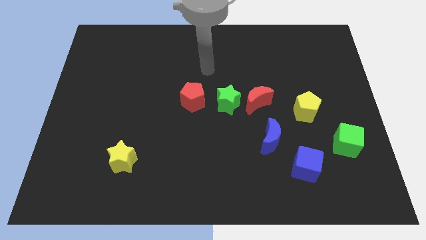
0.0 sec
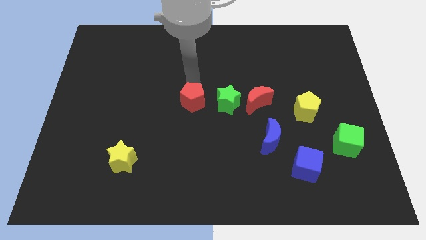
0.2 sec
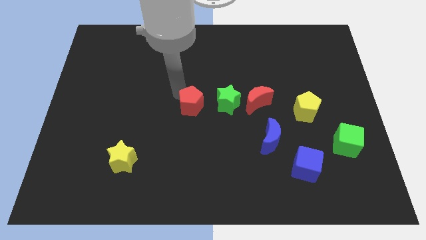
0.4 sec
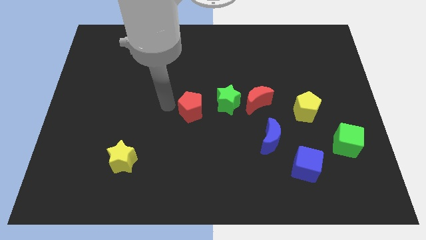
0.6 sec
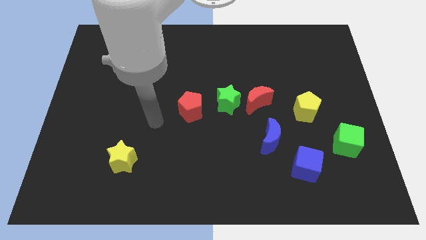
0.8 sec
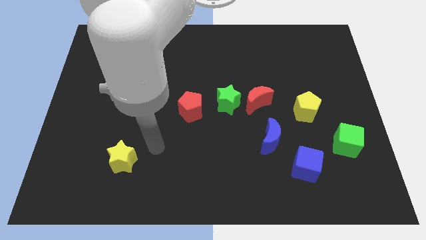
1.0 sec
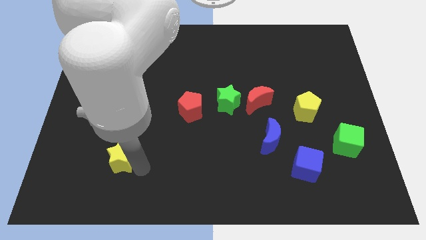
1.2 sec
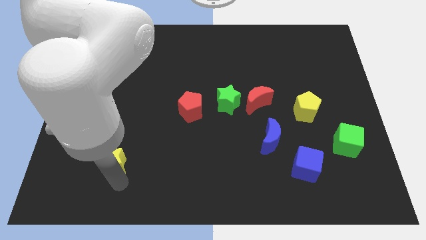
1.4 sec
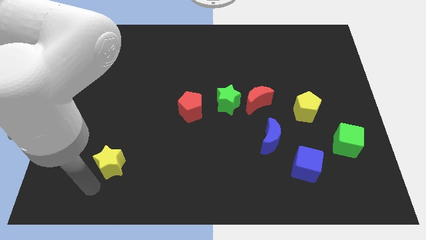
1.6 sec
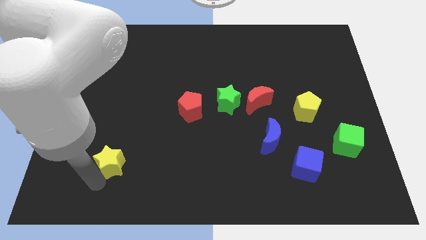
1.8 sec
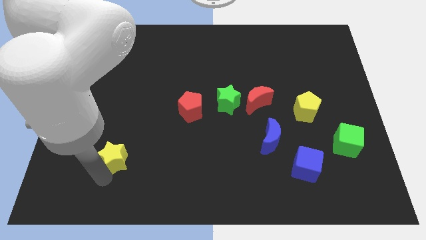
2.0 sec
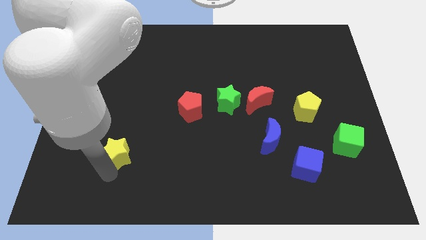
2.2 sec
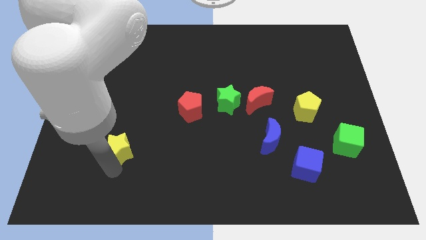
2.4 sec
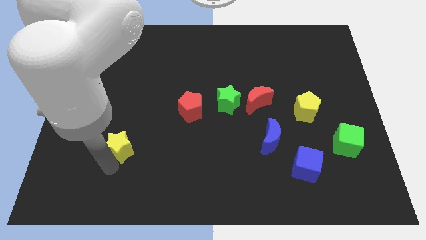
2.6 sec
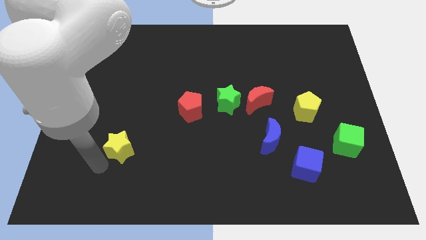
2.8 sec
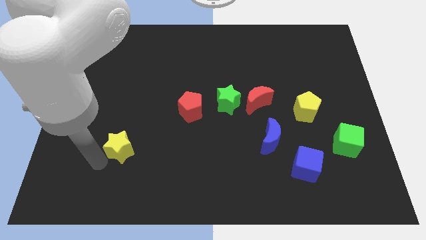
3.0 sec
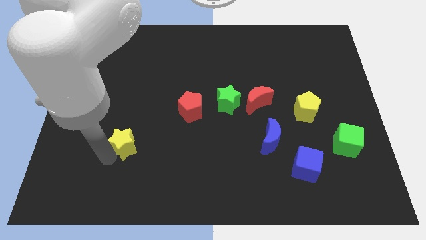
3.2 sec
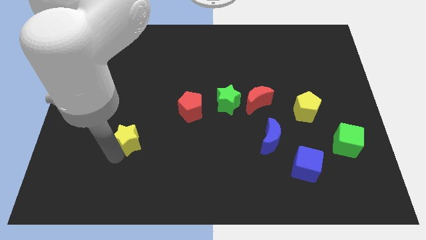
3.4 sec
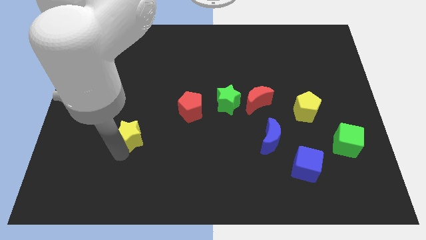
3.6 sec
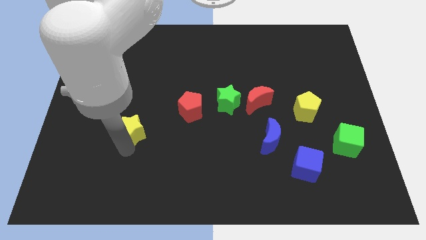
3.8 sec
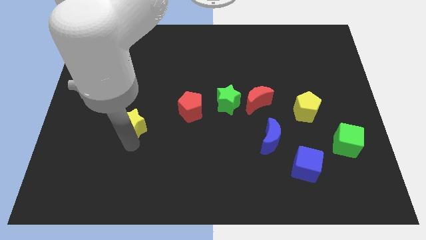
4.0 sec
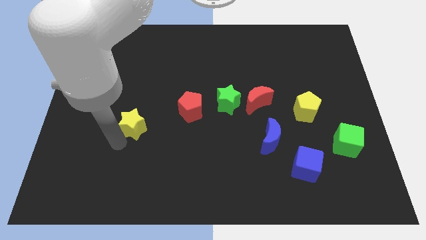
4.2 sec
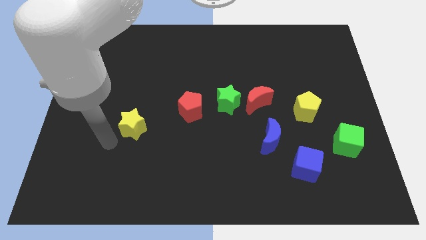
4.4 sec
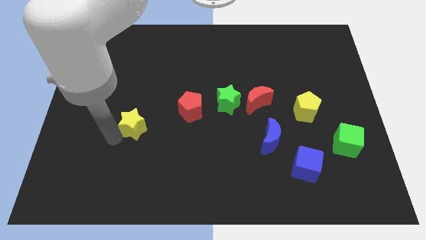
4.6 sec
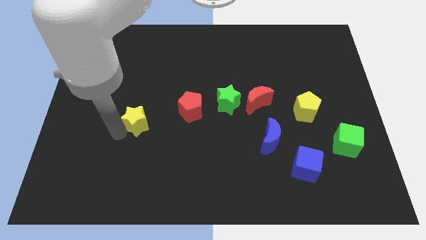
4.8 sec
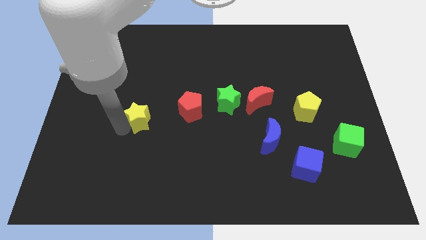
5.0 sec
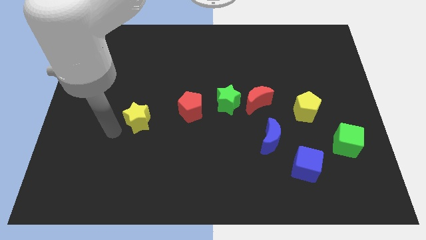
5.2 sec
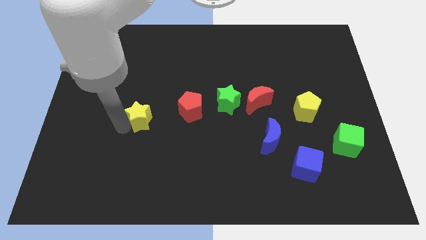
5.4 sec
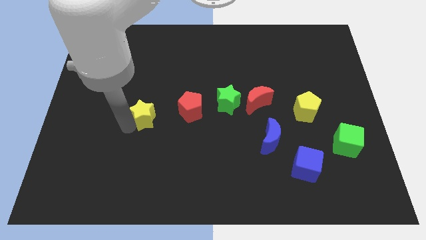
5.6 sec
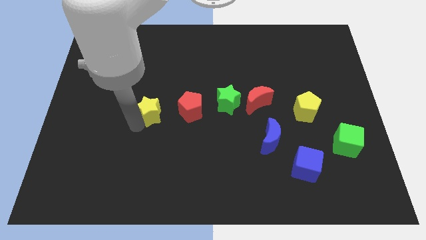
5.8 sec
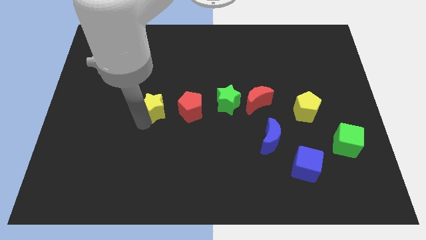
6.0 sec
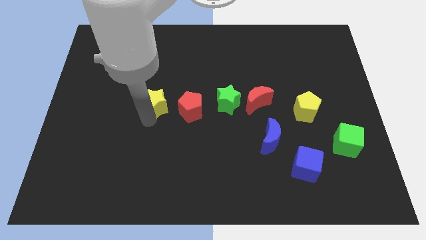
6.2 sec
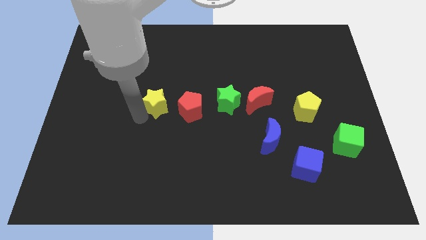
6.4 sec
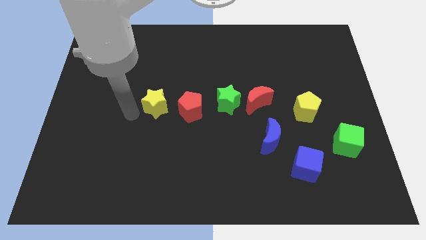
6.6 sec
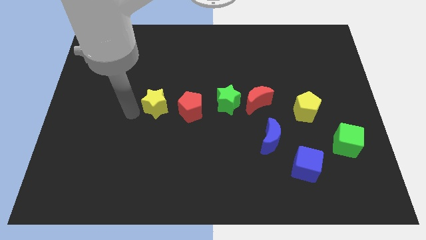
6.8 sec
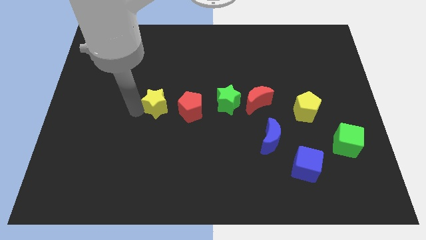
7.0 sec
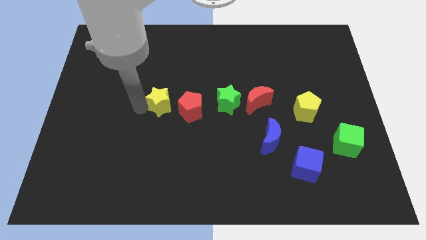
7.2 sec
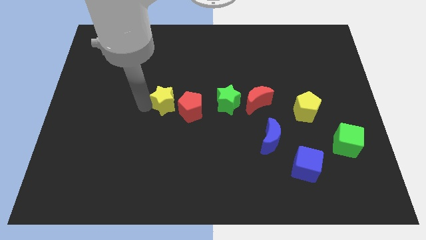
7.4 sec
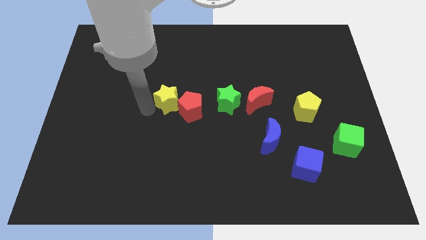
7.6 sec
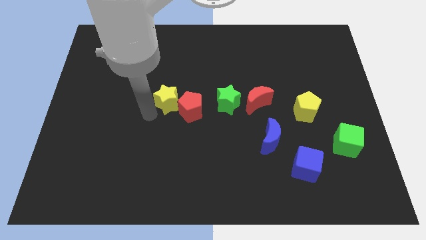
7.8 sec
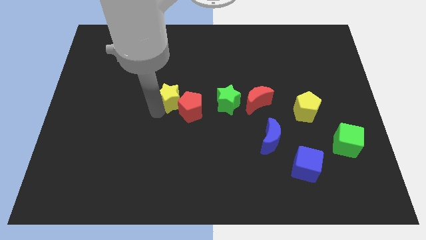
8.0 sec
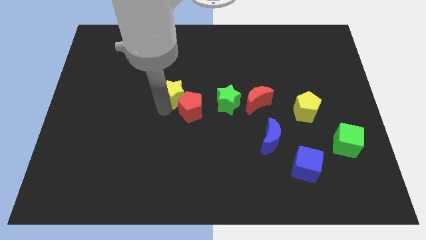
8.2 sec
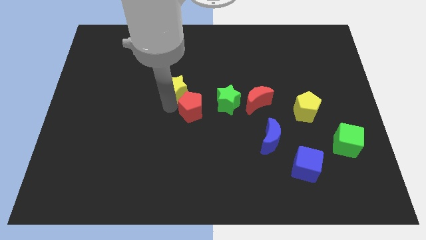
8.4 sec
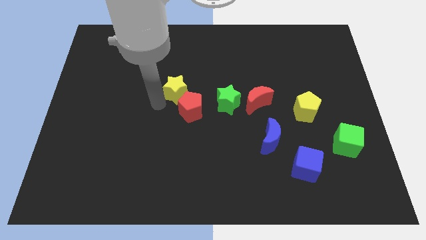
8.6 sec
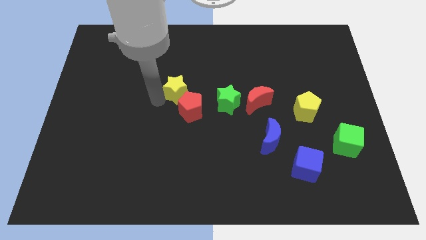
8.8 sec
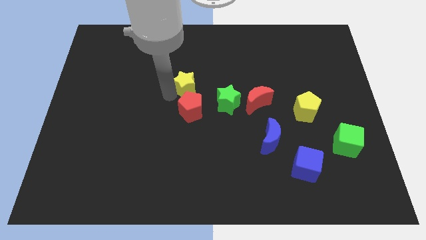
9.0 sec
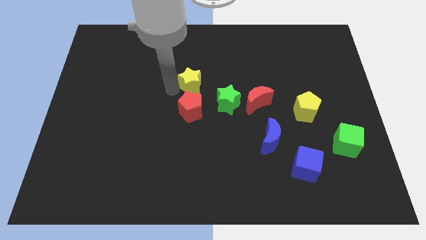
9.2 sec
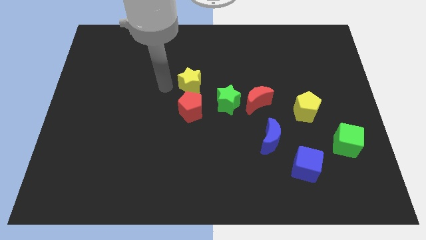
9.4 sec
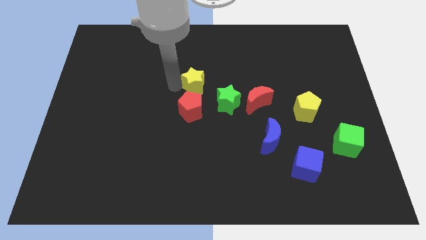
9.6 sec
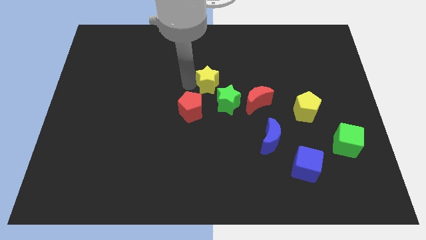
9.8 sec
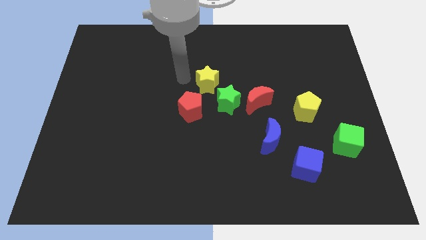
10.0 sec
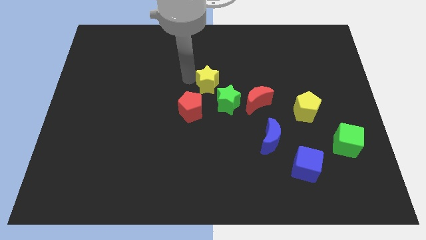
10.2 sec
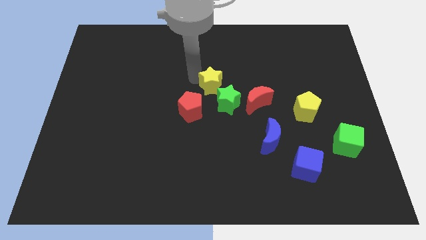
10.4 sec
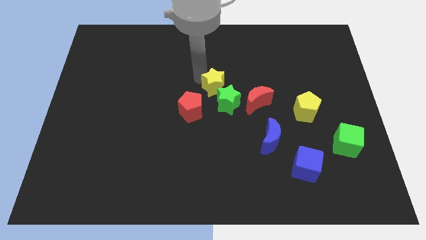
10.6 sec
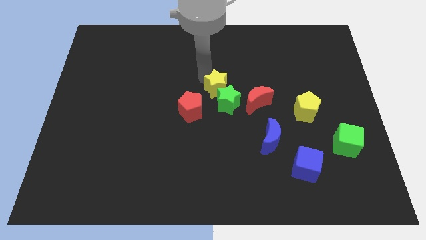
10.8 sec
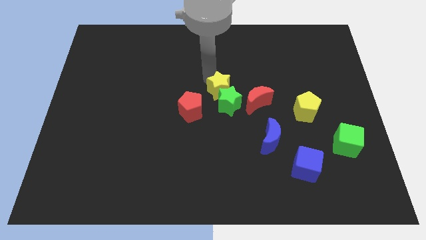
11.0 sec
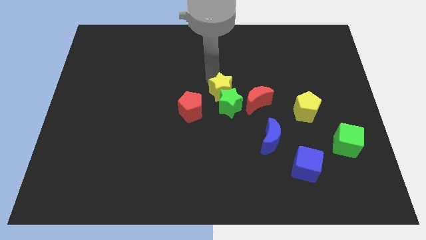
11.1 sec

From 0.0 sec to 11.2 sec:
slide the yellow star to the top right of the green star

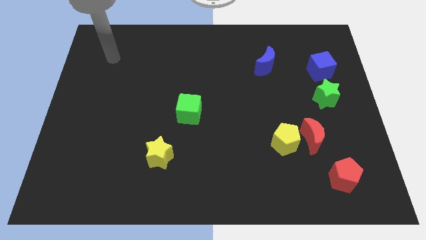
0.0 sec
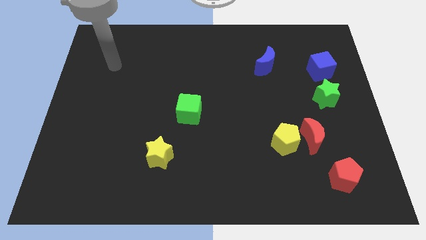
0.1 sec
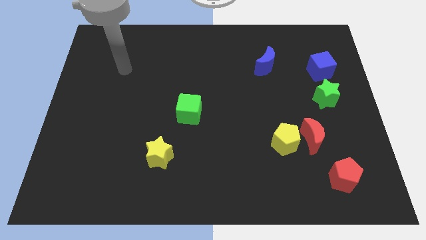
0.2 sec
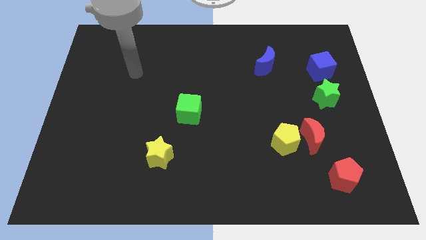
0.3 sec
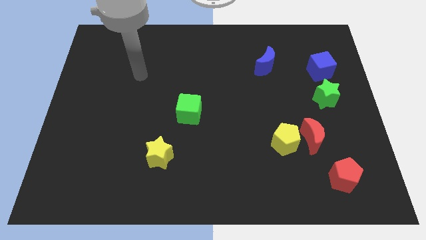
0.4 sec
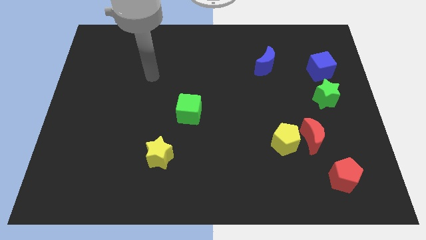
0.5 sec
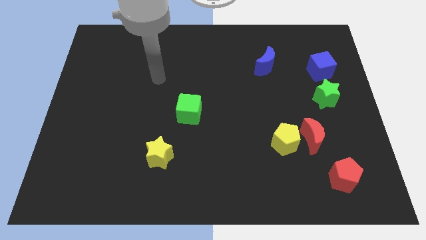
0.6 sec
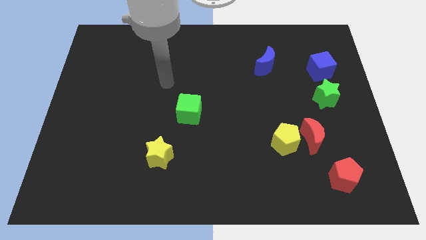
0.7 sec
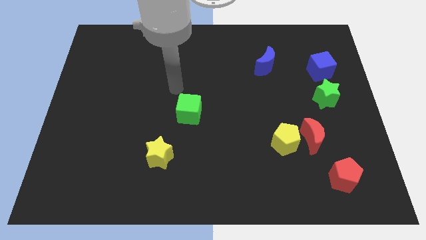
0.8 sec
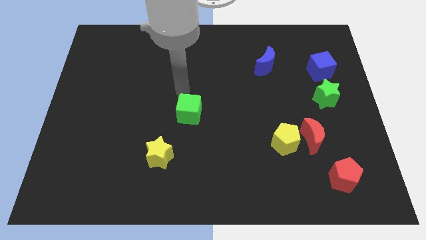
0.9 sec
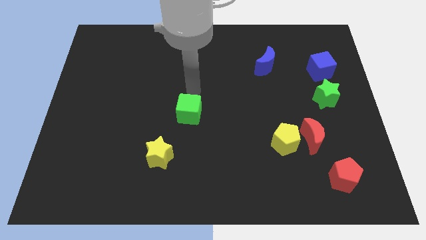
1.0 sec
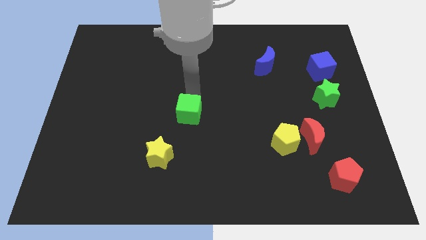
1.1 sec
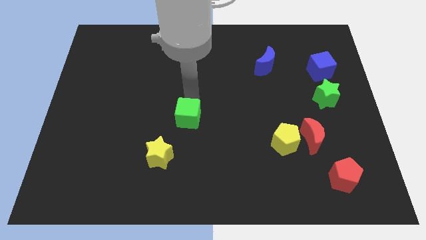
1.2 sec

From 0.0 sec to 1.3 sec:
push the green cube to the top right of the yellow star

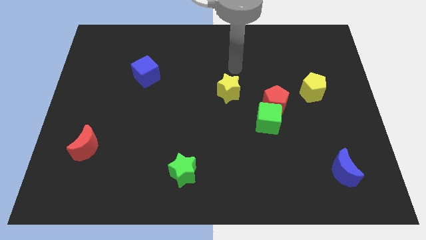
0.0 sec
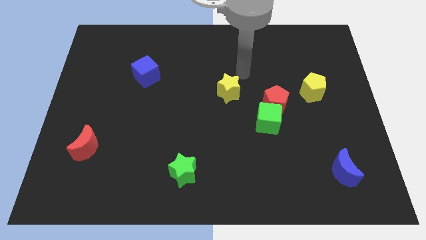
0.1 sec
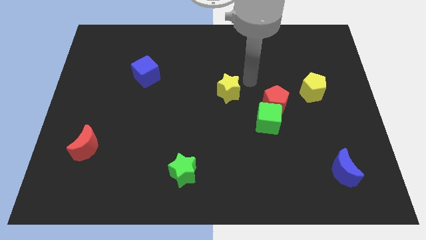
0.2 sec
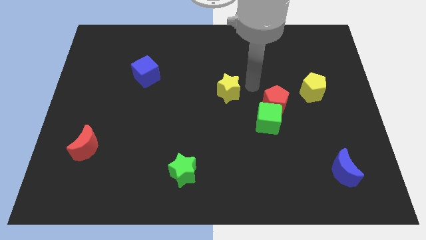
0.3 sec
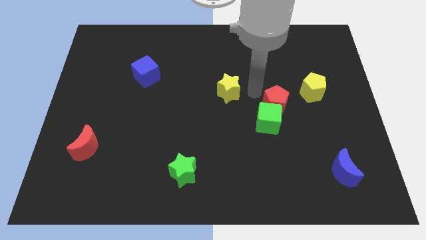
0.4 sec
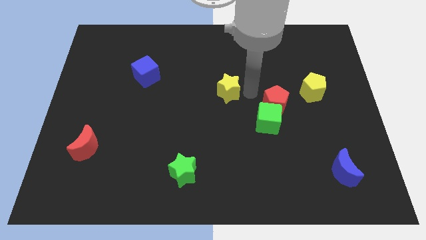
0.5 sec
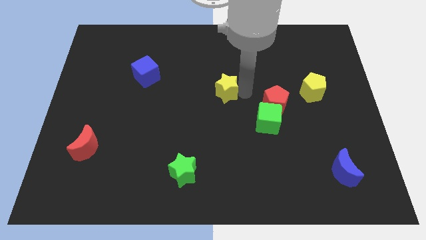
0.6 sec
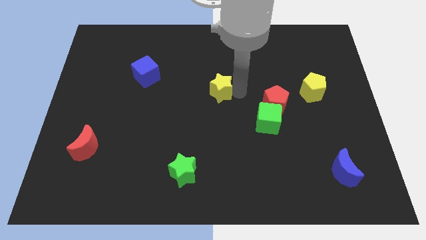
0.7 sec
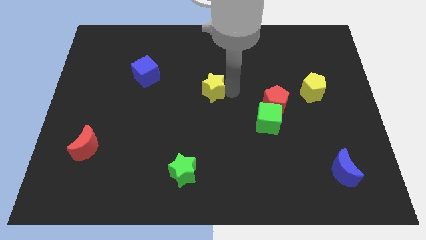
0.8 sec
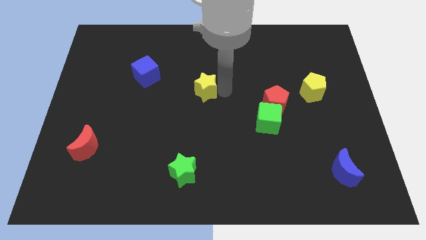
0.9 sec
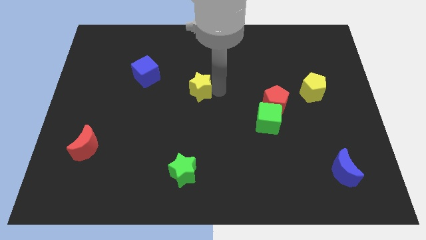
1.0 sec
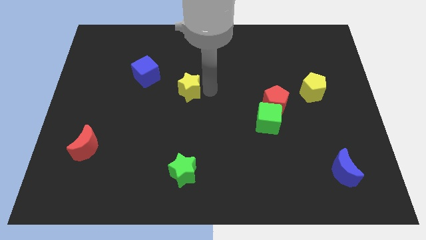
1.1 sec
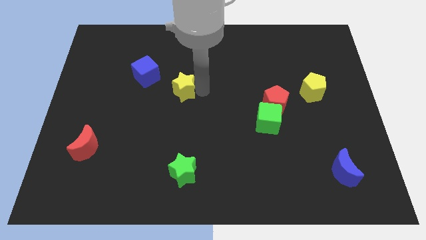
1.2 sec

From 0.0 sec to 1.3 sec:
push the yellow star to the bottom right of the blue cube
